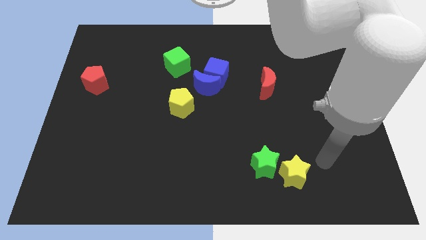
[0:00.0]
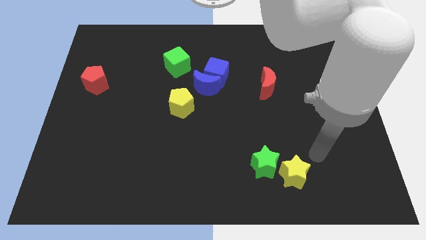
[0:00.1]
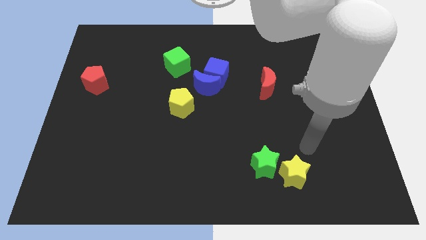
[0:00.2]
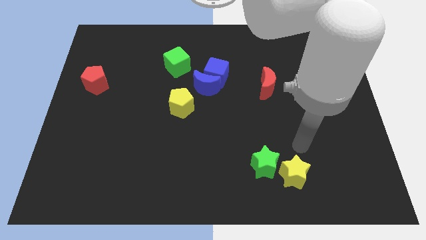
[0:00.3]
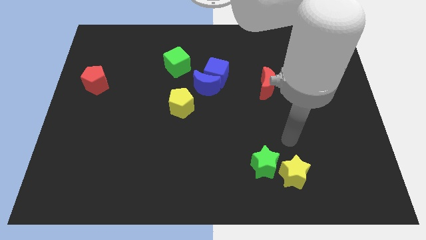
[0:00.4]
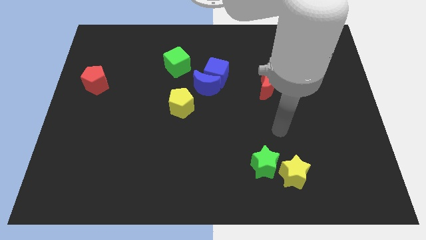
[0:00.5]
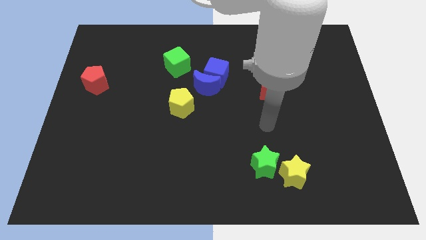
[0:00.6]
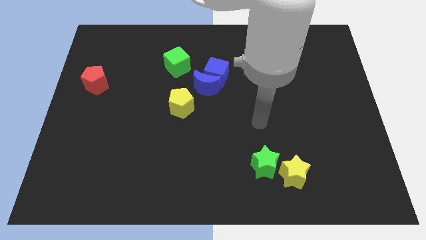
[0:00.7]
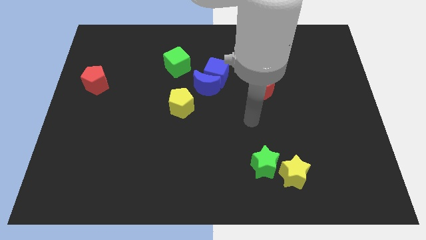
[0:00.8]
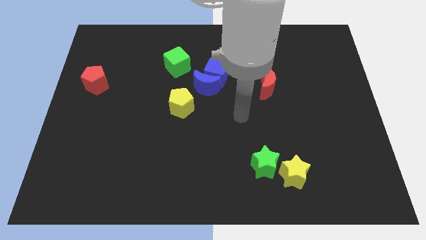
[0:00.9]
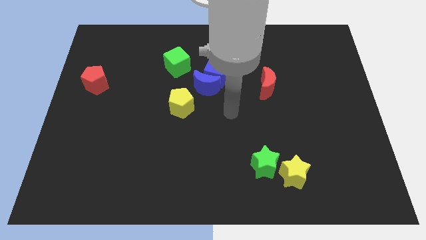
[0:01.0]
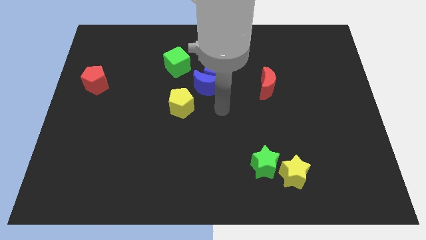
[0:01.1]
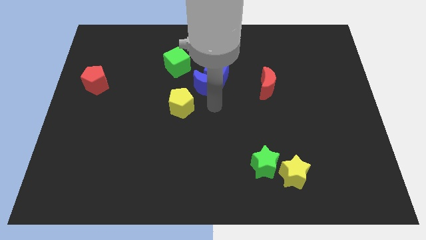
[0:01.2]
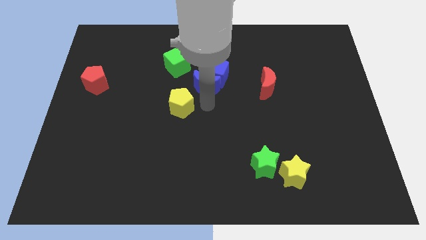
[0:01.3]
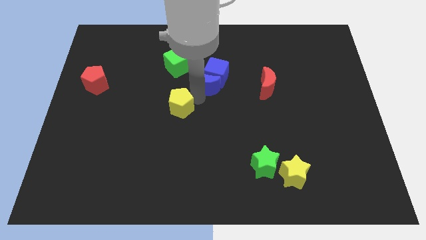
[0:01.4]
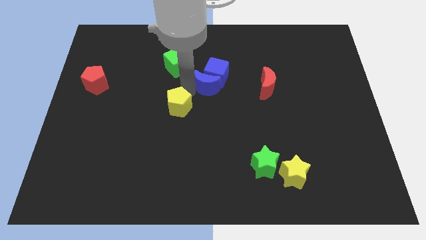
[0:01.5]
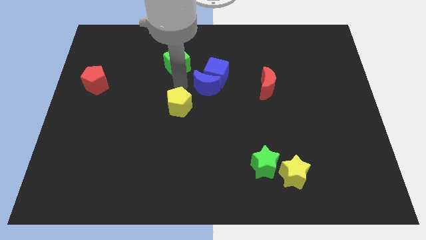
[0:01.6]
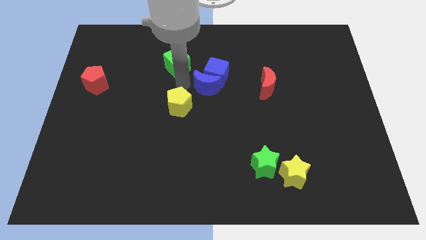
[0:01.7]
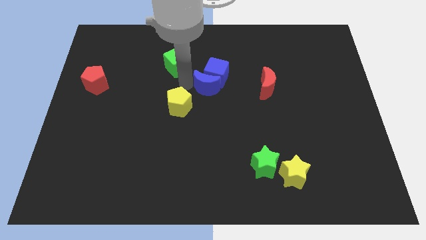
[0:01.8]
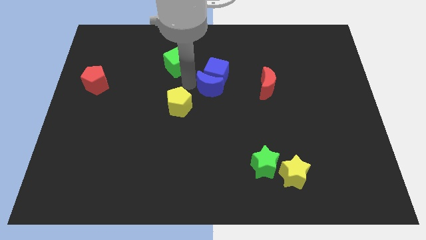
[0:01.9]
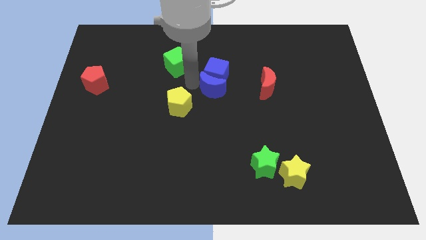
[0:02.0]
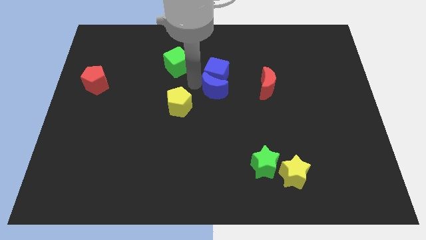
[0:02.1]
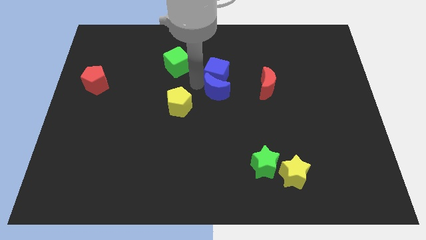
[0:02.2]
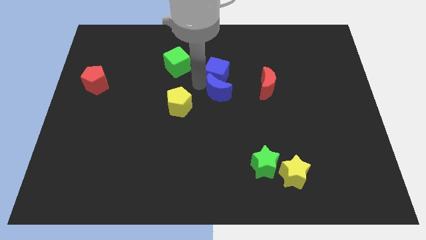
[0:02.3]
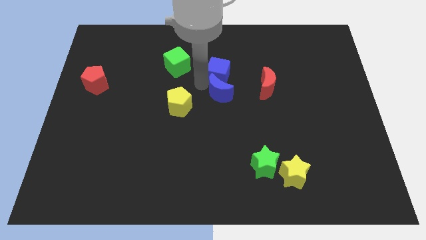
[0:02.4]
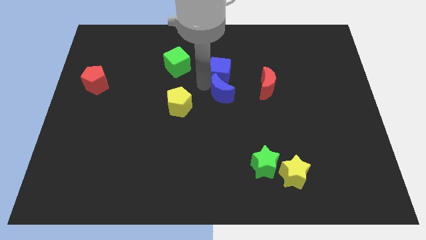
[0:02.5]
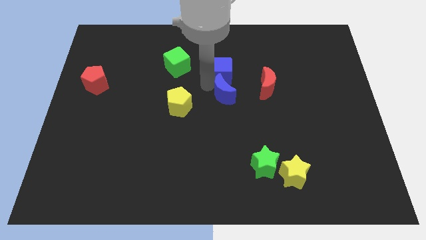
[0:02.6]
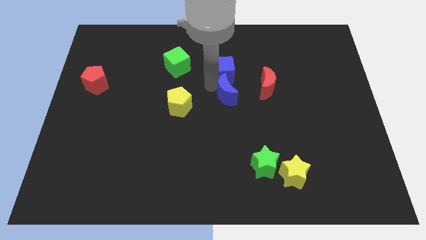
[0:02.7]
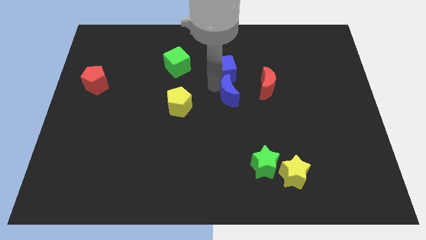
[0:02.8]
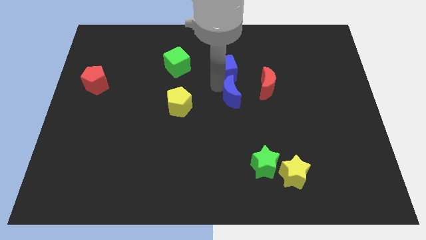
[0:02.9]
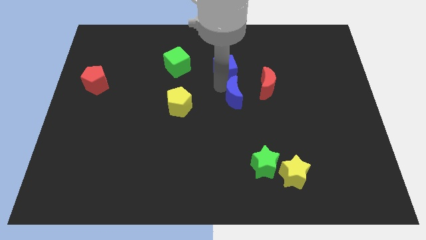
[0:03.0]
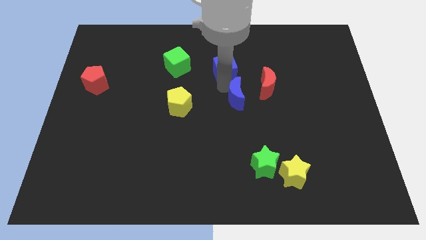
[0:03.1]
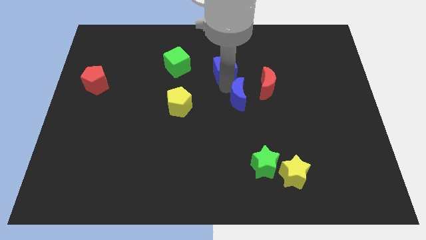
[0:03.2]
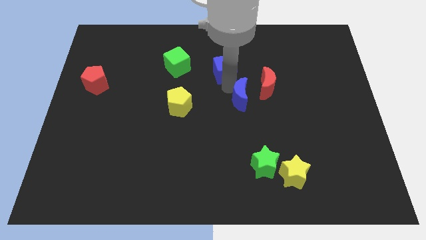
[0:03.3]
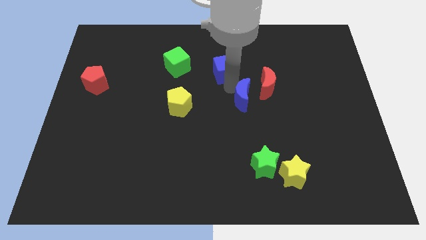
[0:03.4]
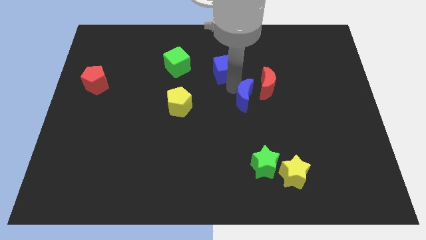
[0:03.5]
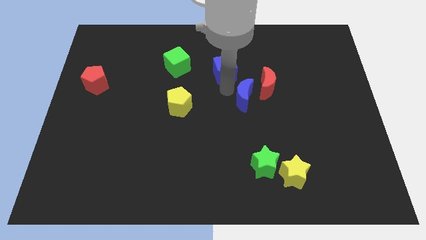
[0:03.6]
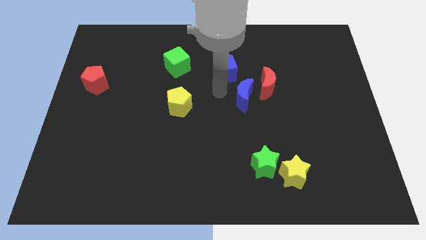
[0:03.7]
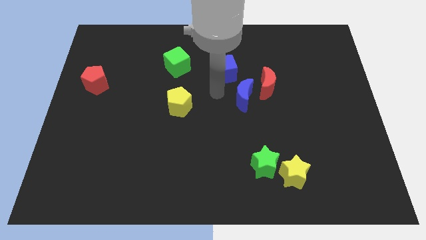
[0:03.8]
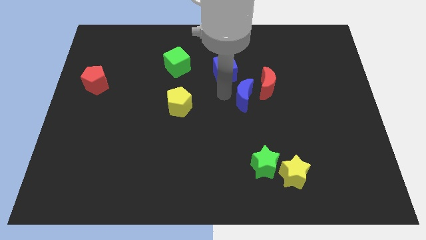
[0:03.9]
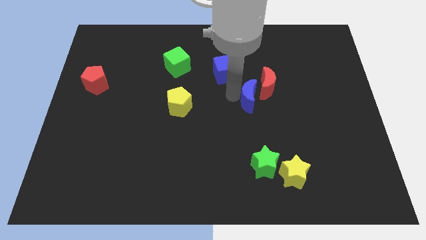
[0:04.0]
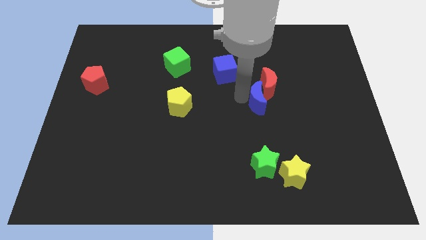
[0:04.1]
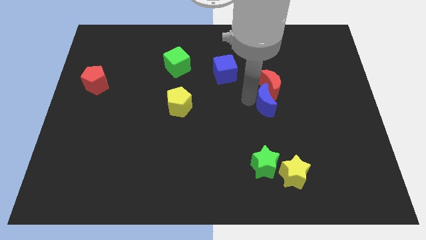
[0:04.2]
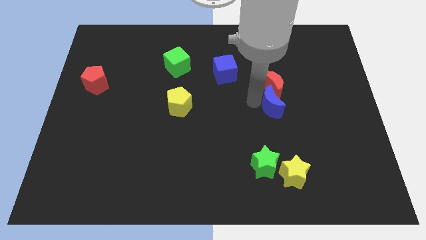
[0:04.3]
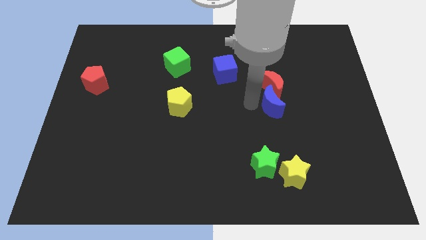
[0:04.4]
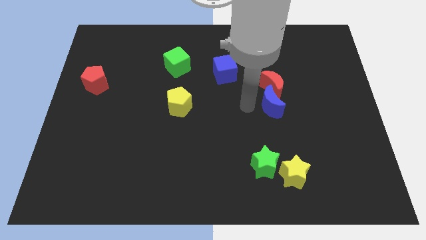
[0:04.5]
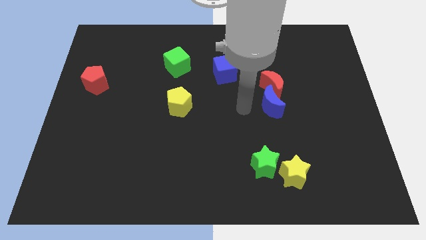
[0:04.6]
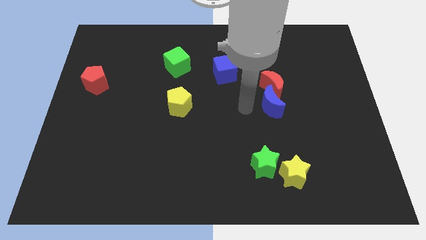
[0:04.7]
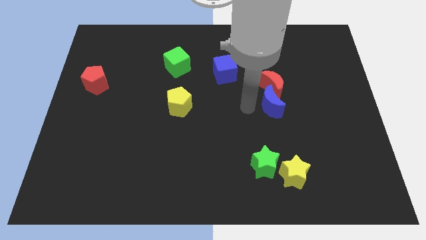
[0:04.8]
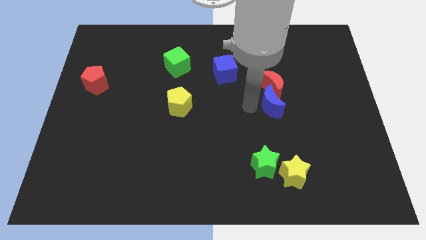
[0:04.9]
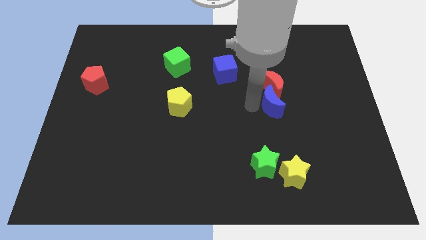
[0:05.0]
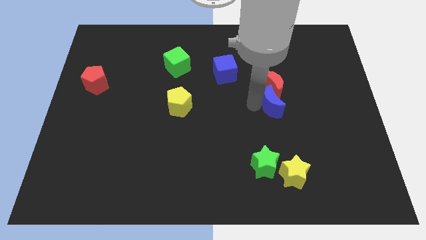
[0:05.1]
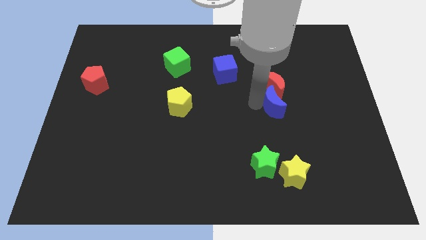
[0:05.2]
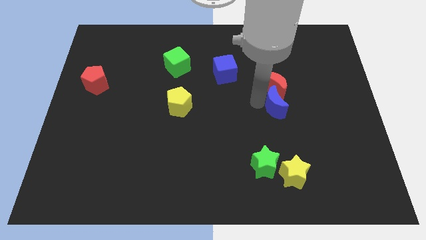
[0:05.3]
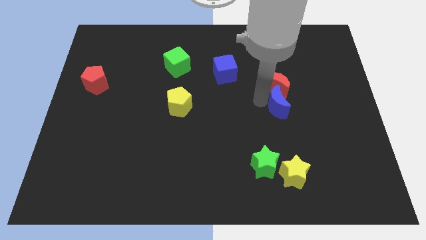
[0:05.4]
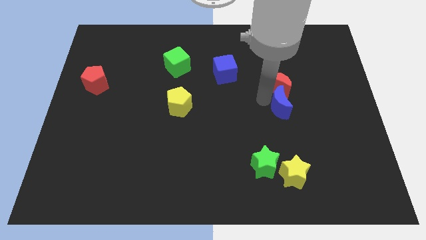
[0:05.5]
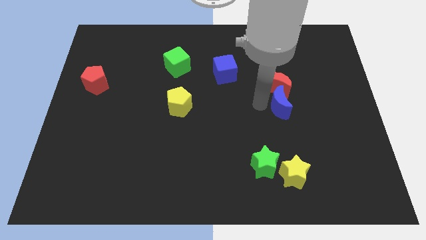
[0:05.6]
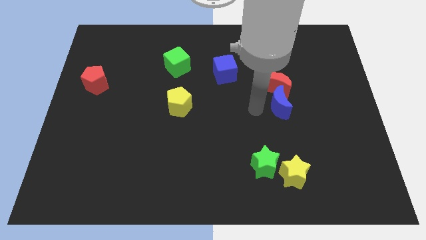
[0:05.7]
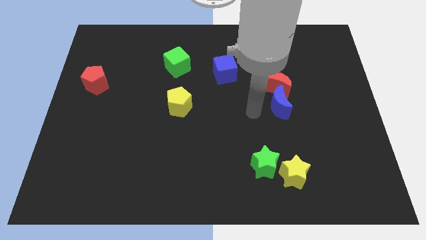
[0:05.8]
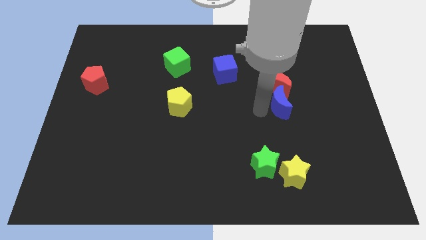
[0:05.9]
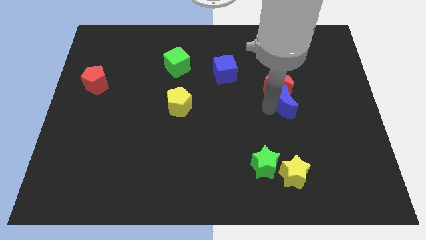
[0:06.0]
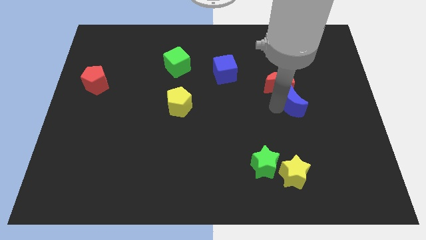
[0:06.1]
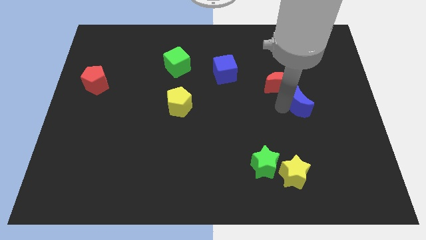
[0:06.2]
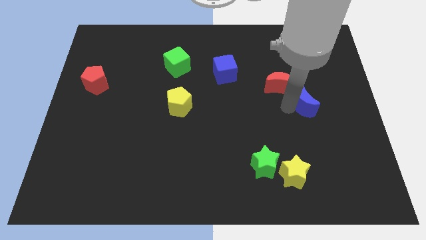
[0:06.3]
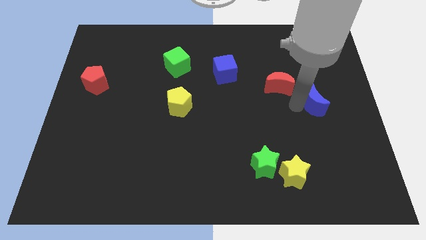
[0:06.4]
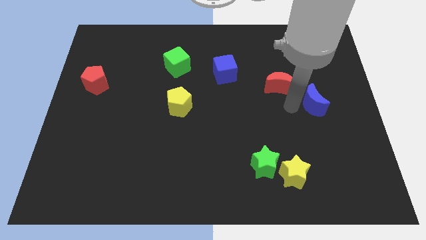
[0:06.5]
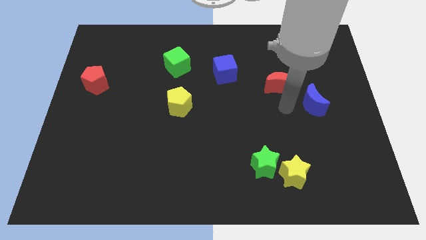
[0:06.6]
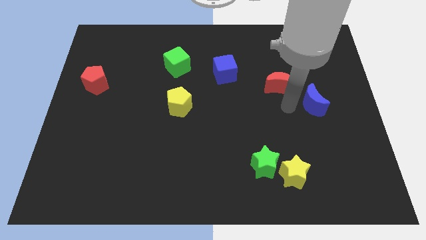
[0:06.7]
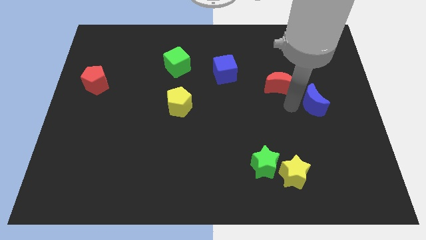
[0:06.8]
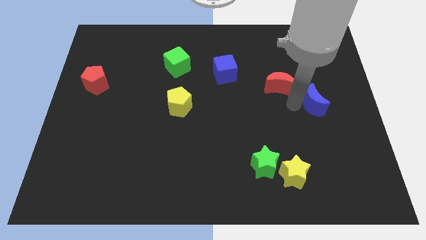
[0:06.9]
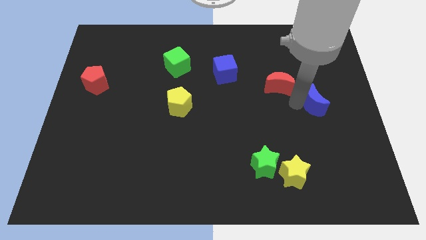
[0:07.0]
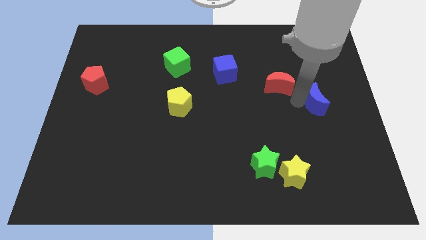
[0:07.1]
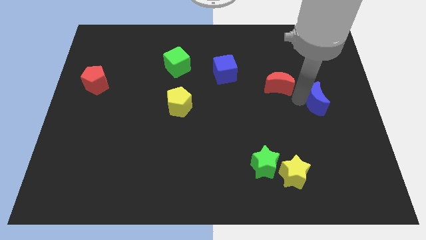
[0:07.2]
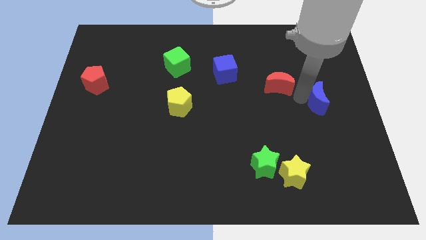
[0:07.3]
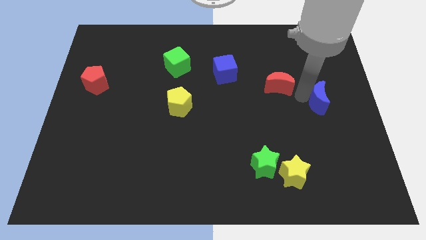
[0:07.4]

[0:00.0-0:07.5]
move the blue moon to the right side

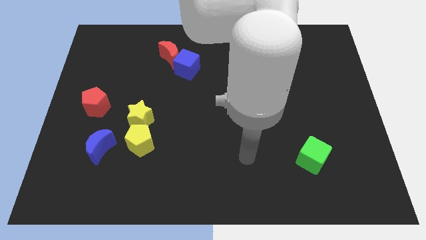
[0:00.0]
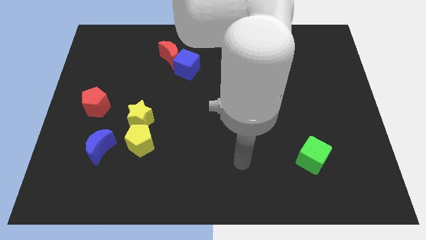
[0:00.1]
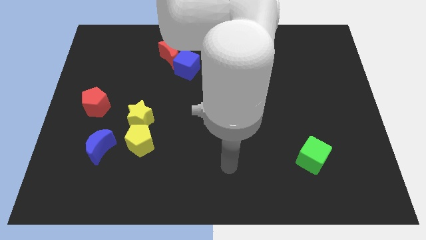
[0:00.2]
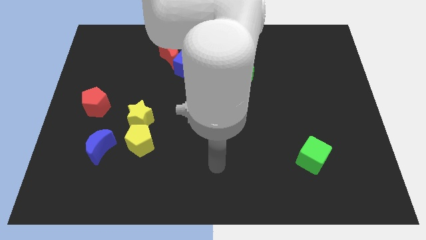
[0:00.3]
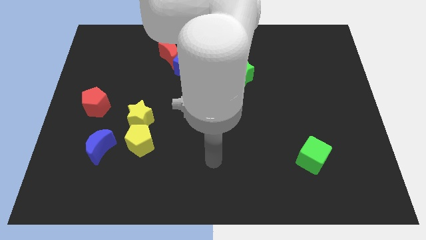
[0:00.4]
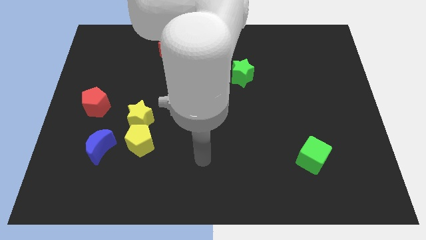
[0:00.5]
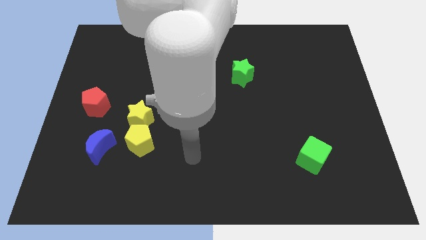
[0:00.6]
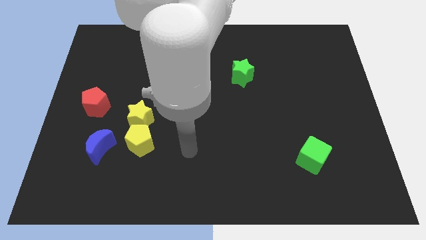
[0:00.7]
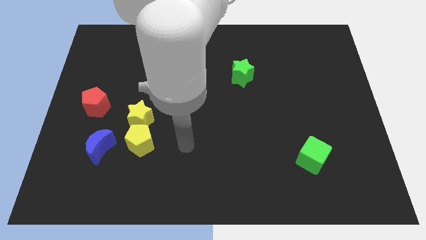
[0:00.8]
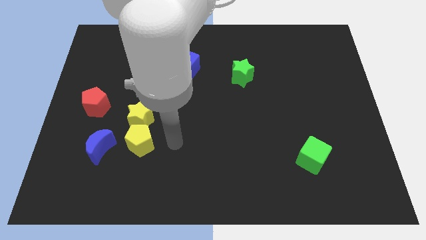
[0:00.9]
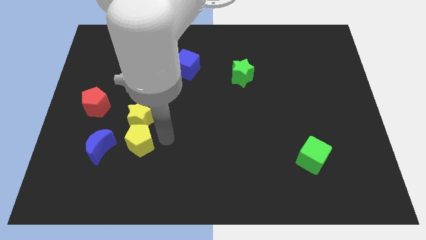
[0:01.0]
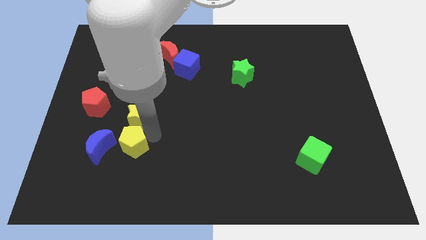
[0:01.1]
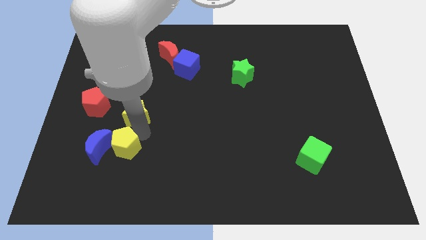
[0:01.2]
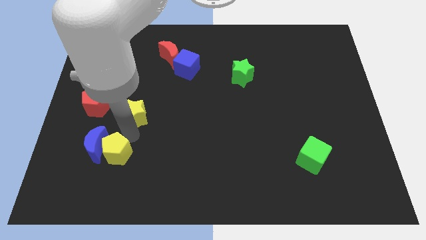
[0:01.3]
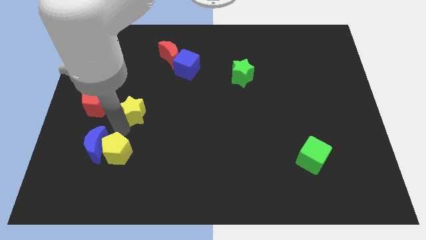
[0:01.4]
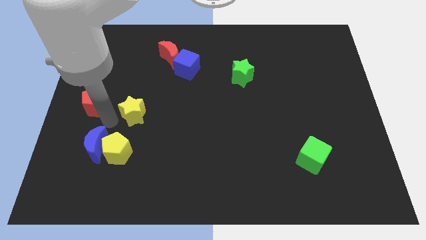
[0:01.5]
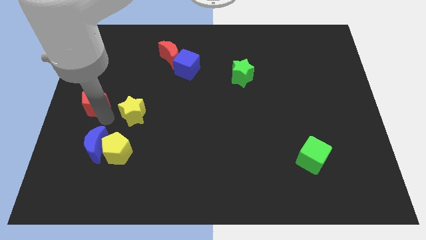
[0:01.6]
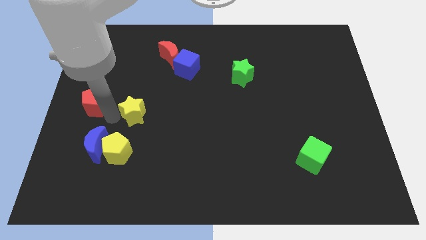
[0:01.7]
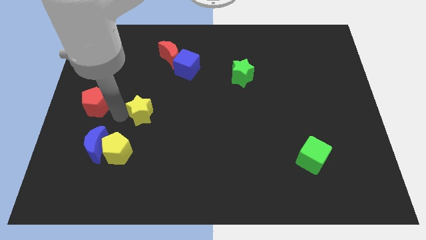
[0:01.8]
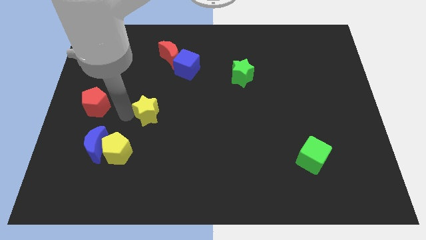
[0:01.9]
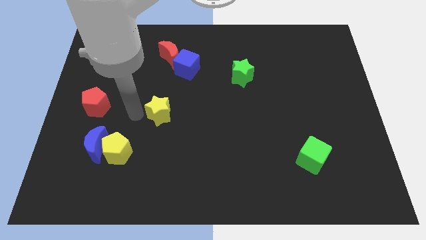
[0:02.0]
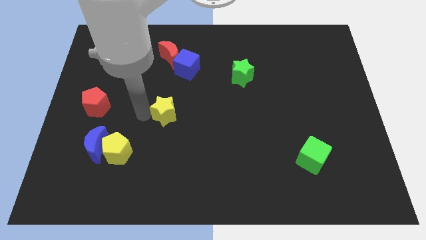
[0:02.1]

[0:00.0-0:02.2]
move the yellow star to the middle
